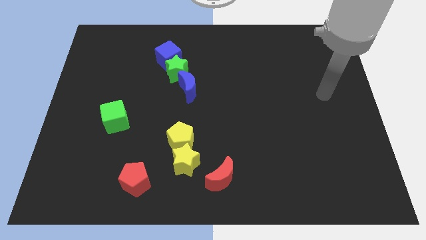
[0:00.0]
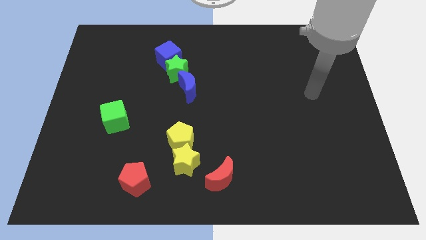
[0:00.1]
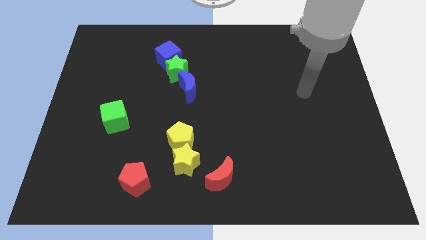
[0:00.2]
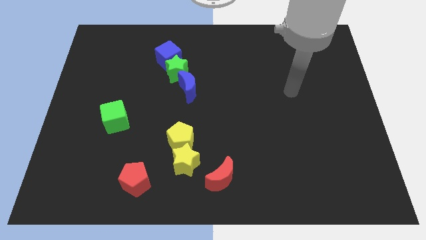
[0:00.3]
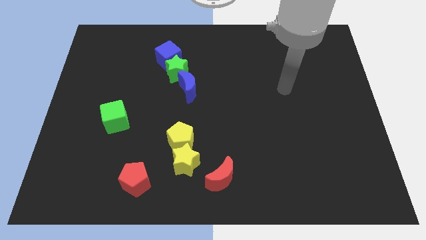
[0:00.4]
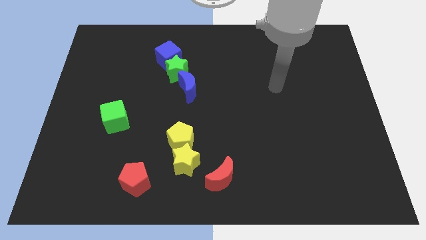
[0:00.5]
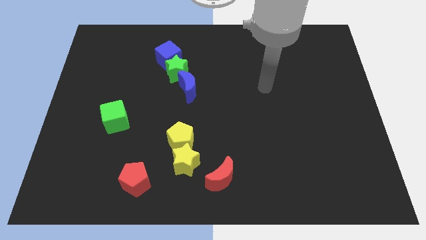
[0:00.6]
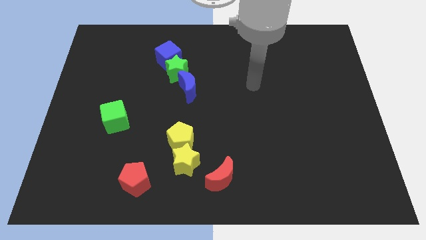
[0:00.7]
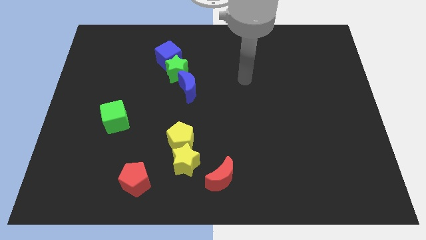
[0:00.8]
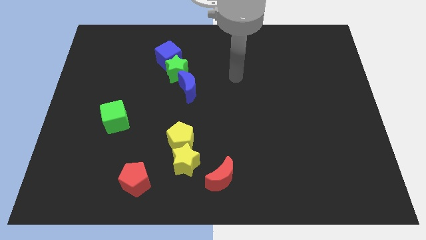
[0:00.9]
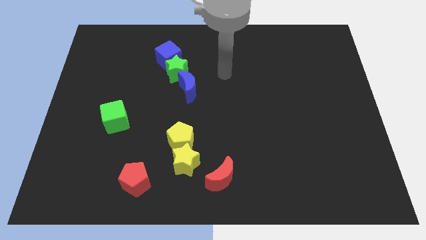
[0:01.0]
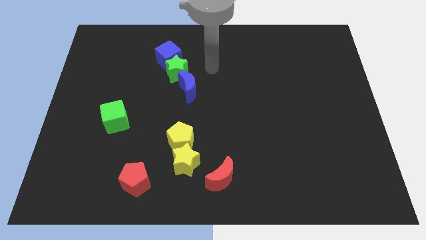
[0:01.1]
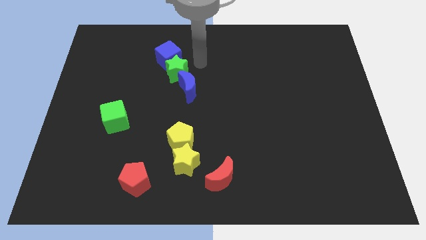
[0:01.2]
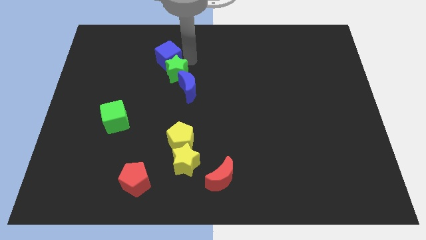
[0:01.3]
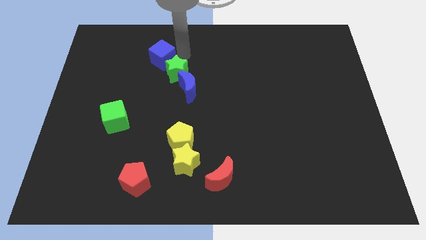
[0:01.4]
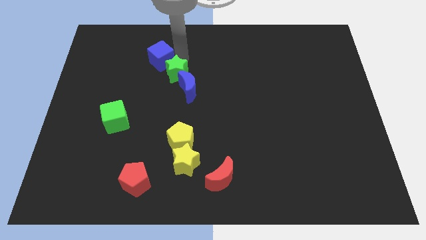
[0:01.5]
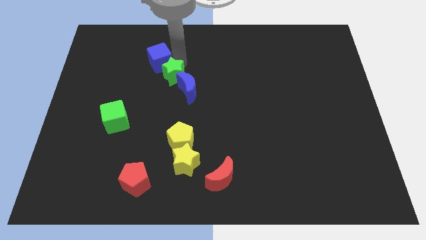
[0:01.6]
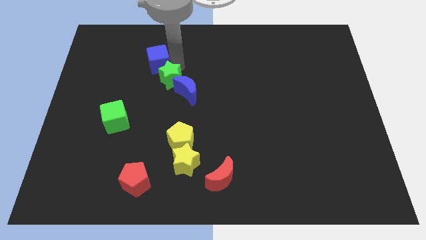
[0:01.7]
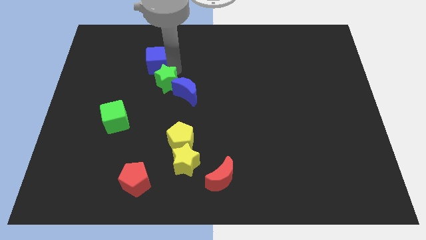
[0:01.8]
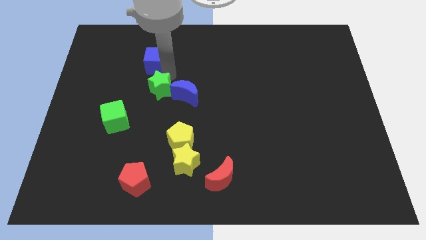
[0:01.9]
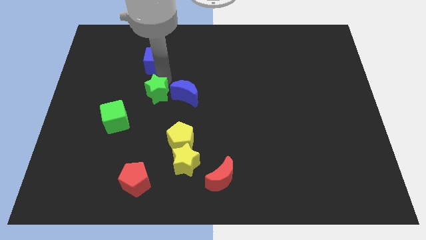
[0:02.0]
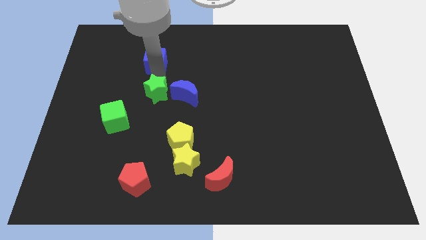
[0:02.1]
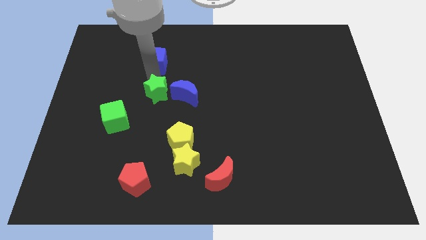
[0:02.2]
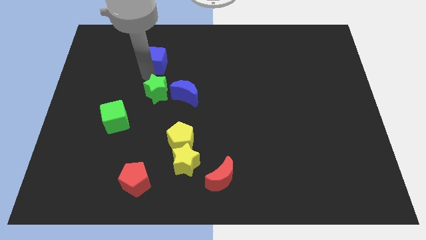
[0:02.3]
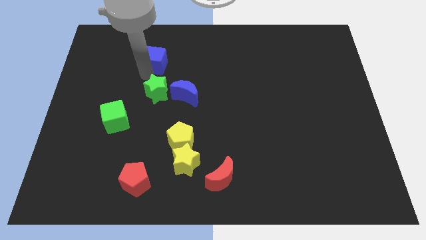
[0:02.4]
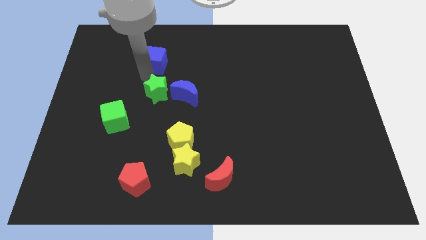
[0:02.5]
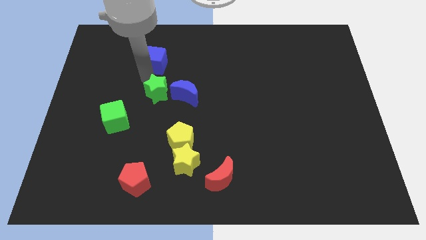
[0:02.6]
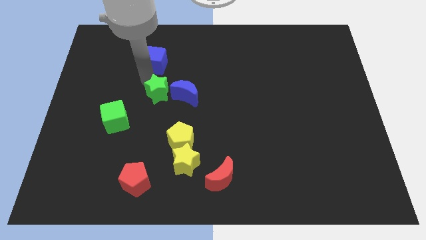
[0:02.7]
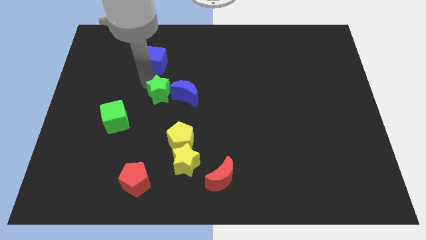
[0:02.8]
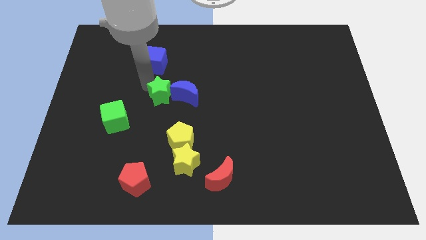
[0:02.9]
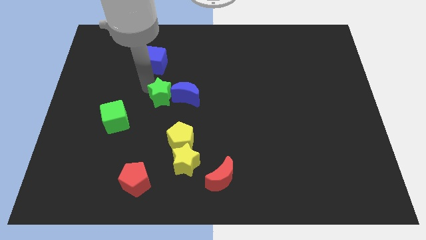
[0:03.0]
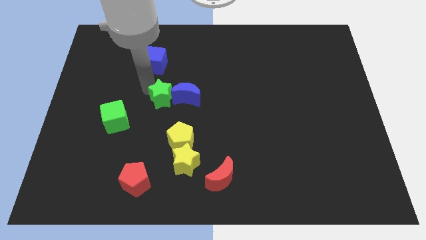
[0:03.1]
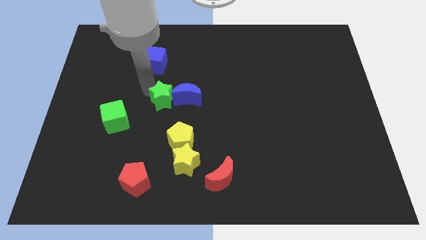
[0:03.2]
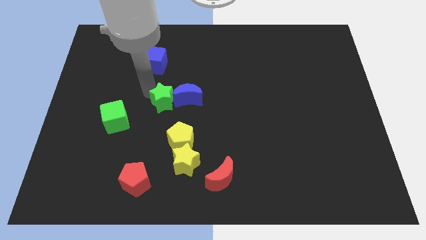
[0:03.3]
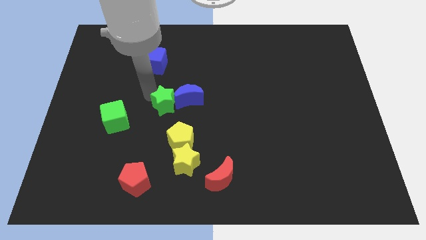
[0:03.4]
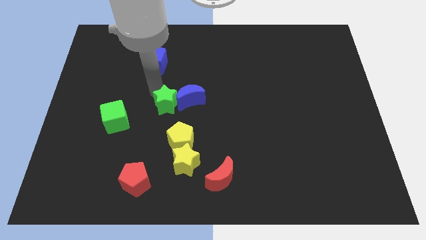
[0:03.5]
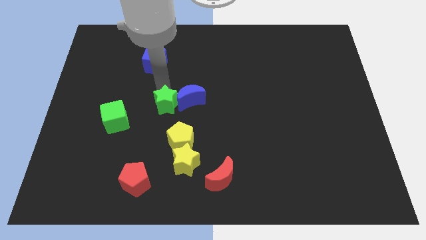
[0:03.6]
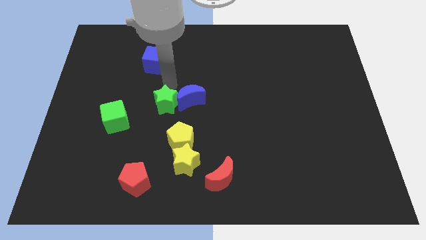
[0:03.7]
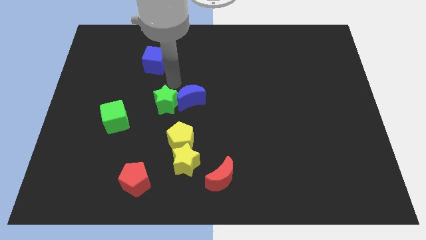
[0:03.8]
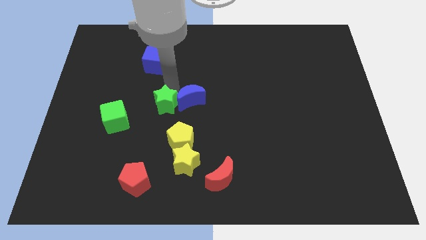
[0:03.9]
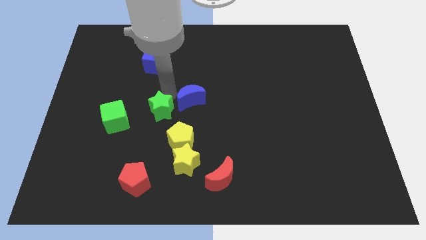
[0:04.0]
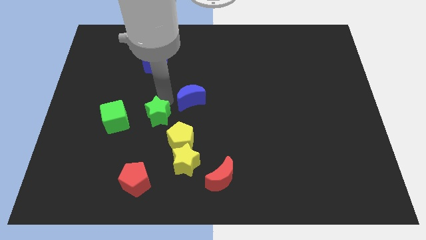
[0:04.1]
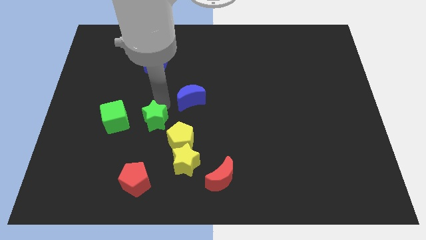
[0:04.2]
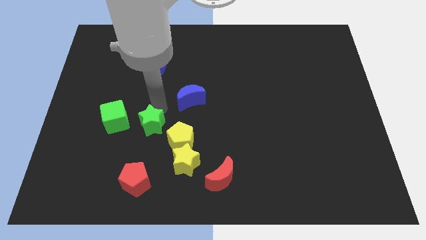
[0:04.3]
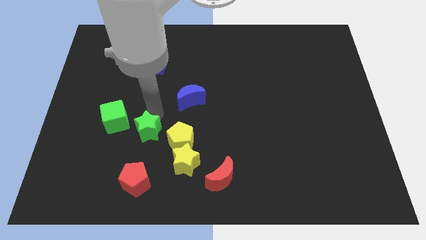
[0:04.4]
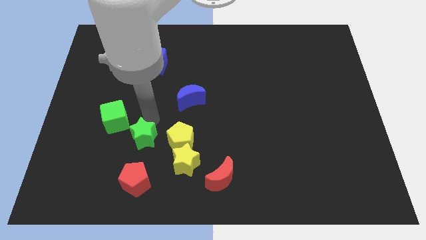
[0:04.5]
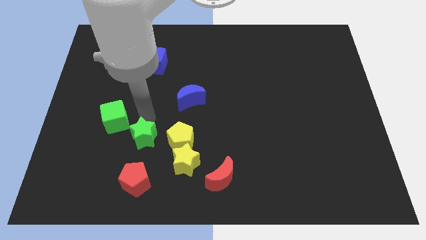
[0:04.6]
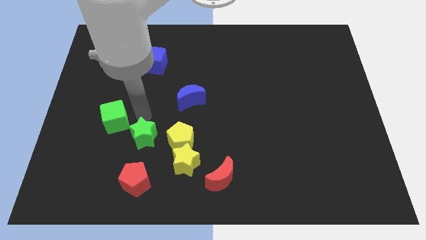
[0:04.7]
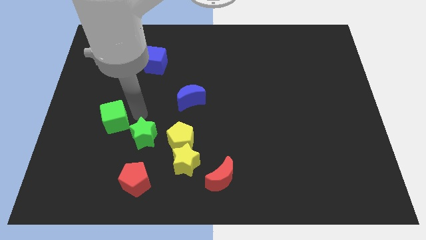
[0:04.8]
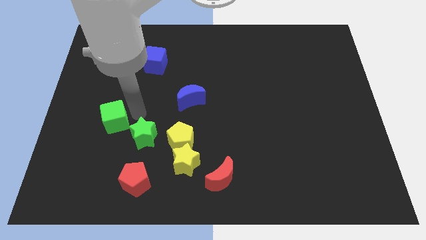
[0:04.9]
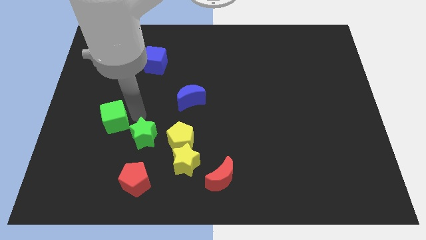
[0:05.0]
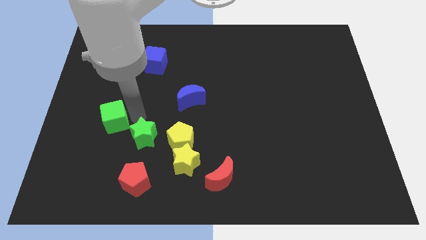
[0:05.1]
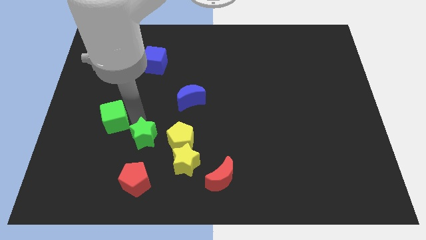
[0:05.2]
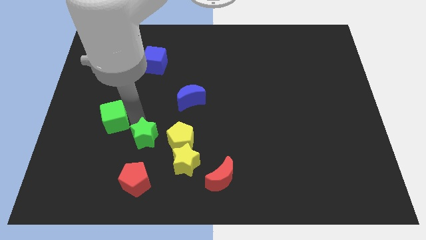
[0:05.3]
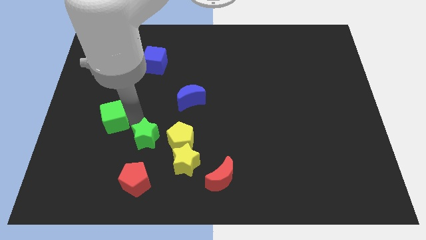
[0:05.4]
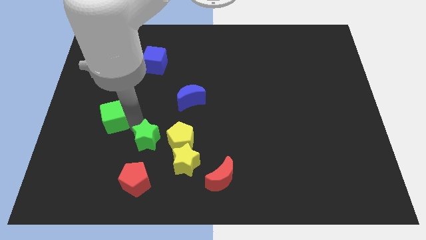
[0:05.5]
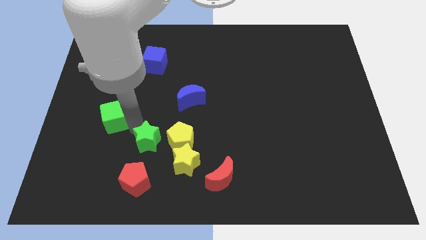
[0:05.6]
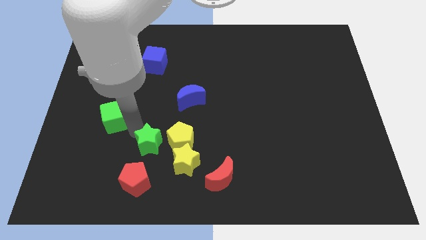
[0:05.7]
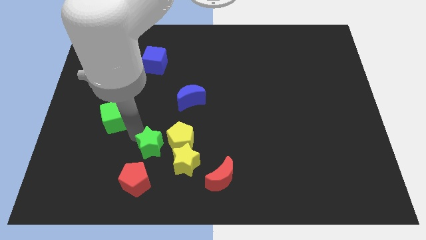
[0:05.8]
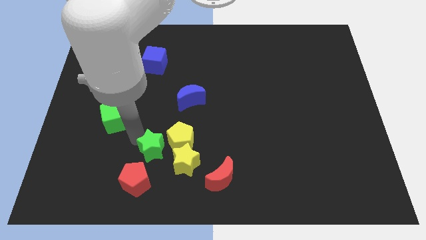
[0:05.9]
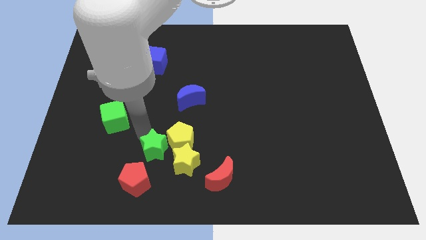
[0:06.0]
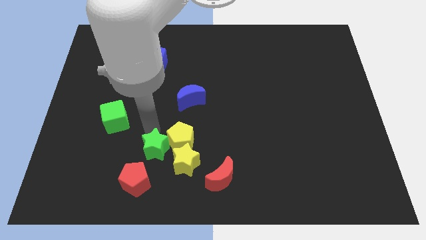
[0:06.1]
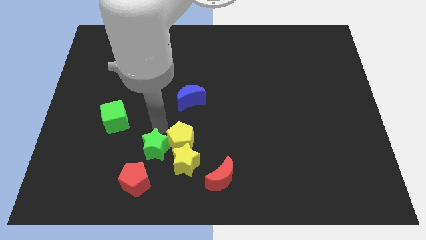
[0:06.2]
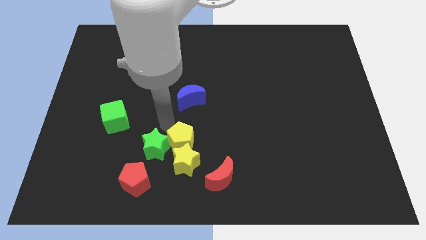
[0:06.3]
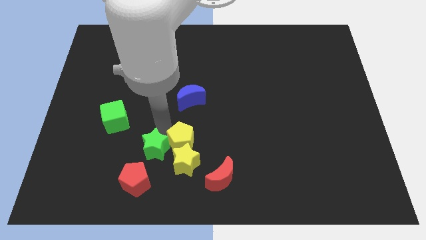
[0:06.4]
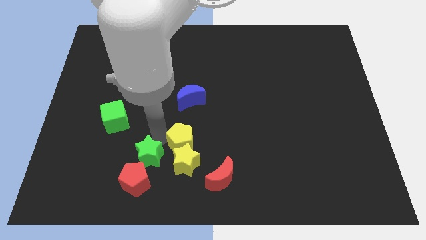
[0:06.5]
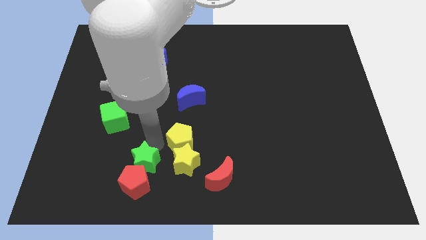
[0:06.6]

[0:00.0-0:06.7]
put the green star close to the red pentagon
